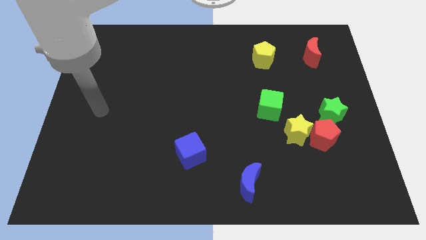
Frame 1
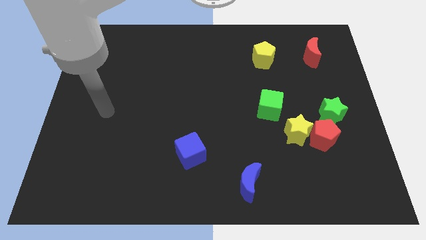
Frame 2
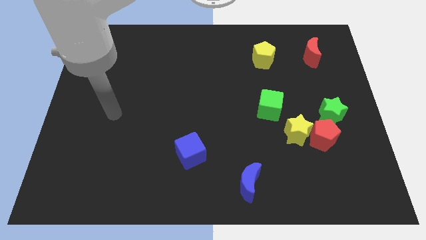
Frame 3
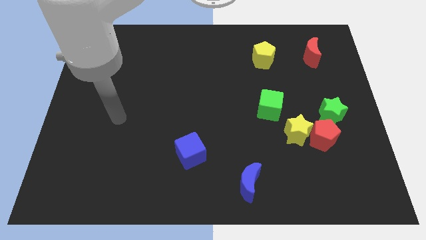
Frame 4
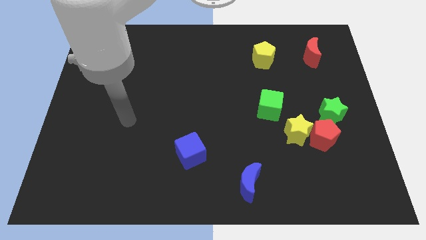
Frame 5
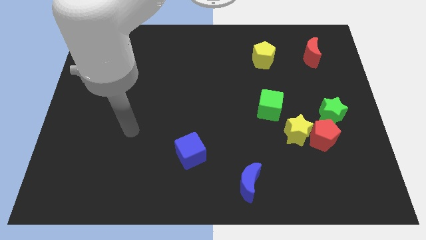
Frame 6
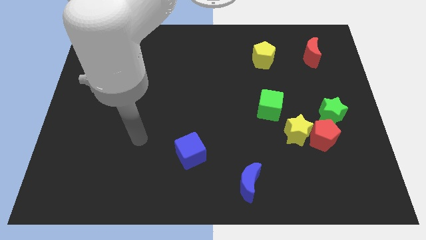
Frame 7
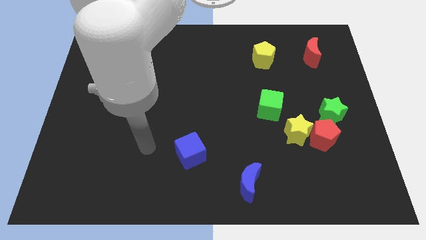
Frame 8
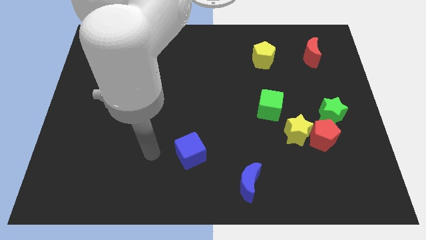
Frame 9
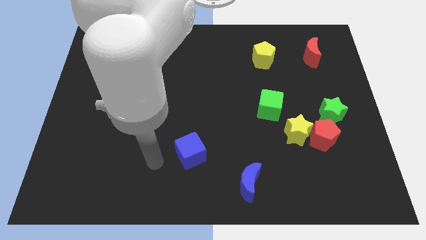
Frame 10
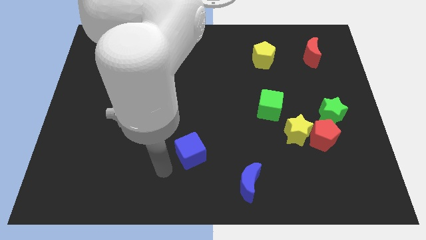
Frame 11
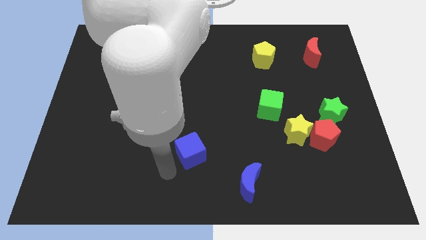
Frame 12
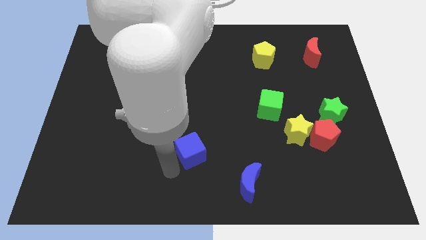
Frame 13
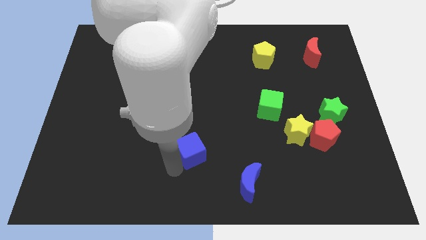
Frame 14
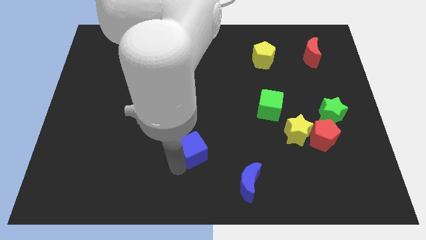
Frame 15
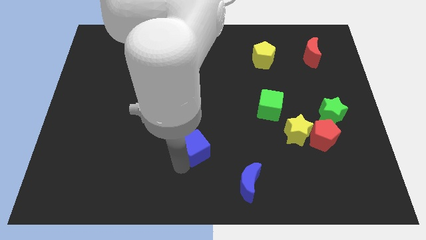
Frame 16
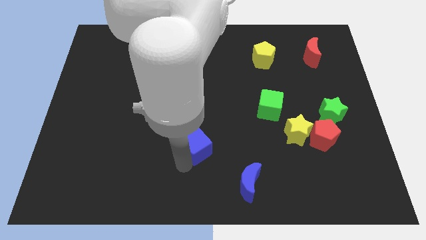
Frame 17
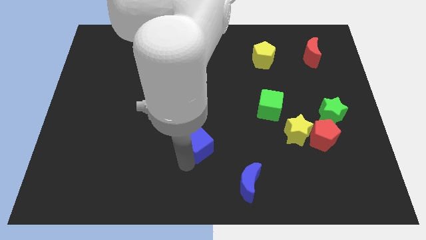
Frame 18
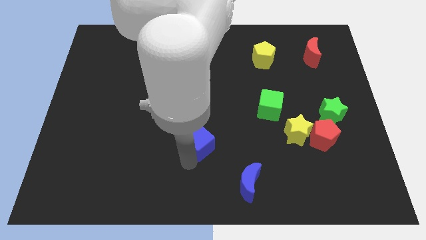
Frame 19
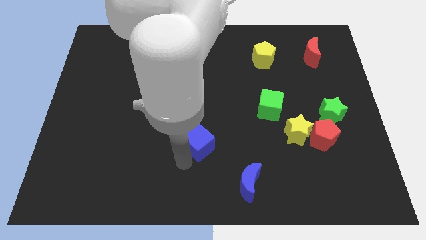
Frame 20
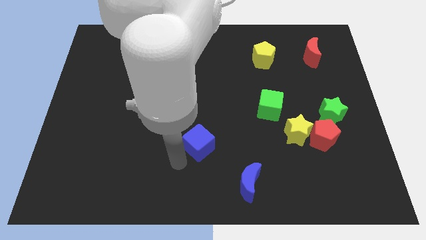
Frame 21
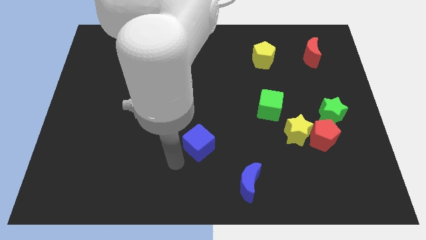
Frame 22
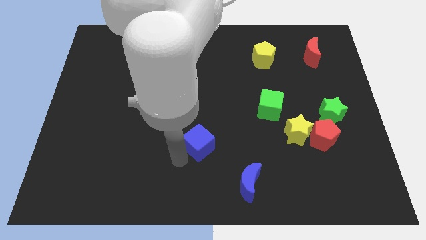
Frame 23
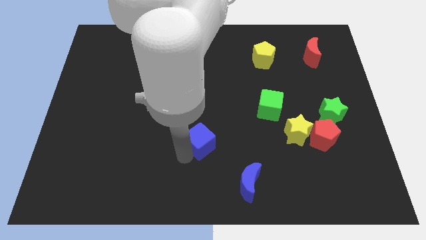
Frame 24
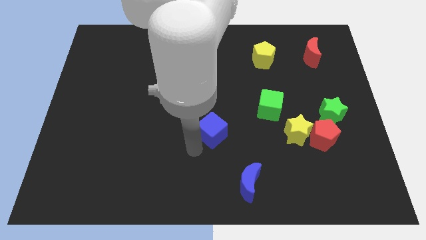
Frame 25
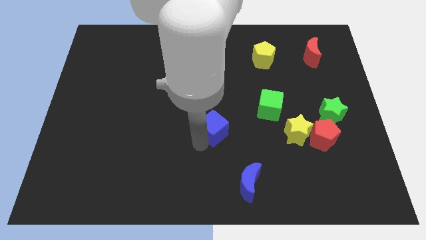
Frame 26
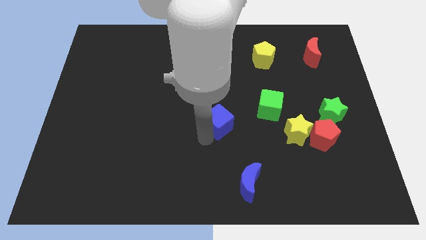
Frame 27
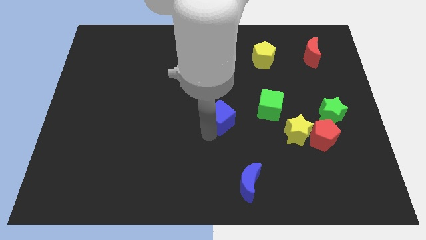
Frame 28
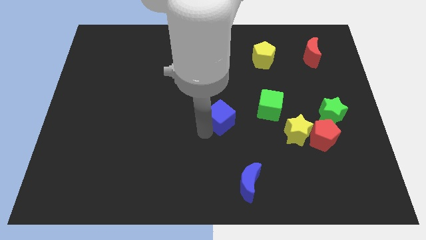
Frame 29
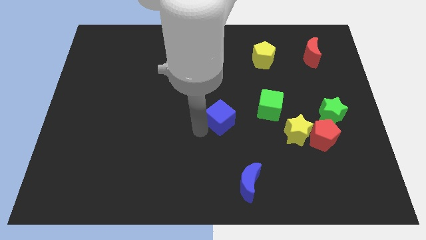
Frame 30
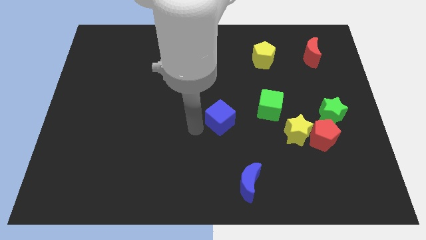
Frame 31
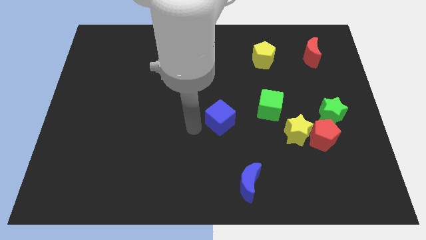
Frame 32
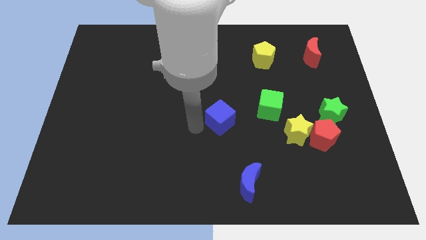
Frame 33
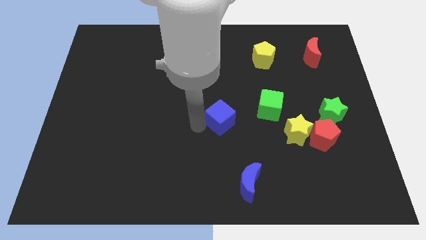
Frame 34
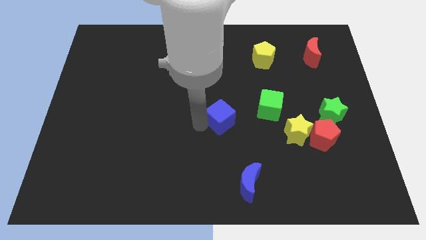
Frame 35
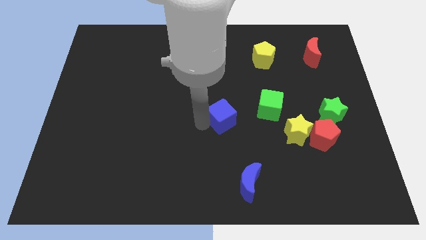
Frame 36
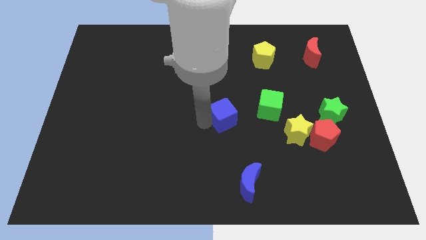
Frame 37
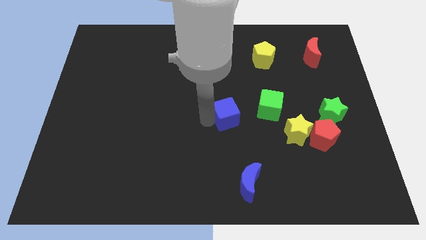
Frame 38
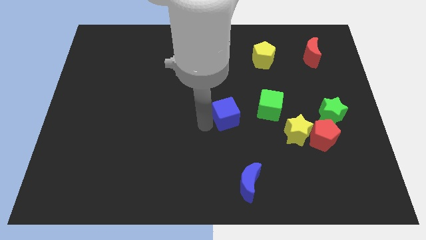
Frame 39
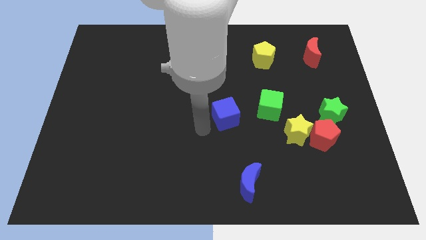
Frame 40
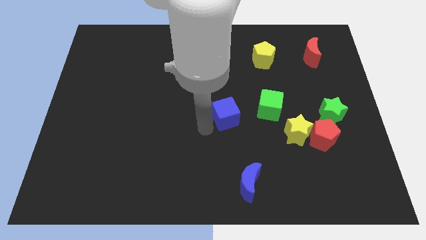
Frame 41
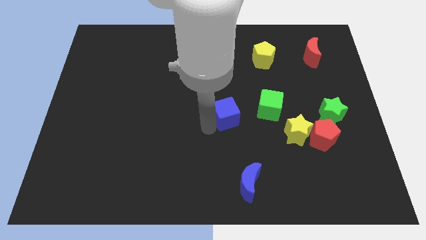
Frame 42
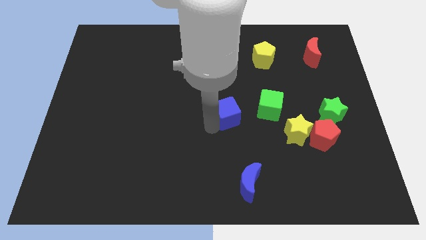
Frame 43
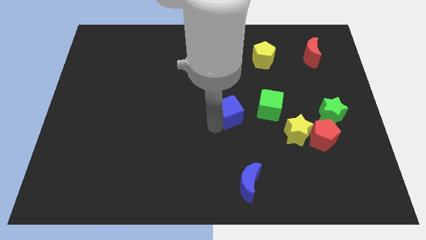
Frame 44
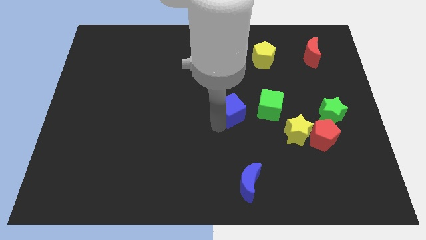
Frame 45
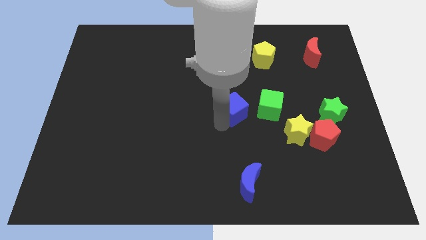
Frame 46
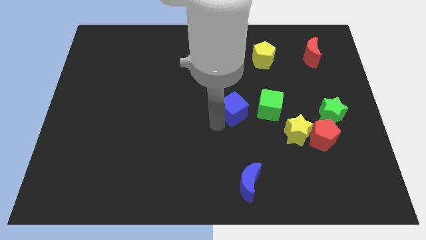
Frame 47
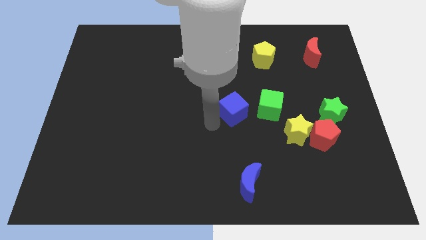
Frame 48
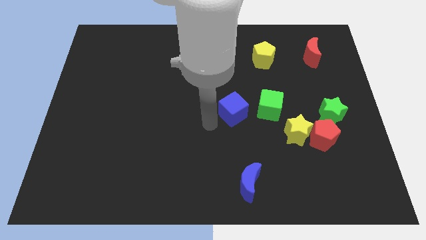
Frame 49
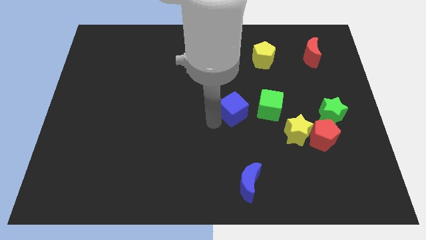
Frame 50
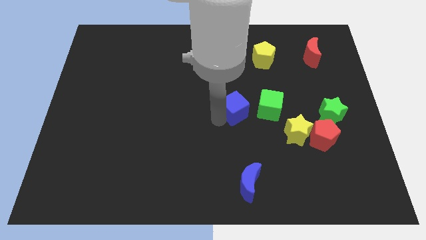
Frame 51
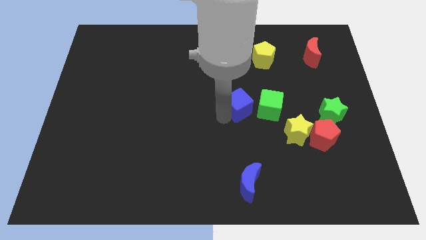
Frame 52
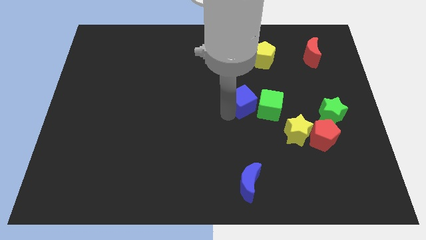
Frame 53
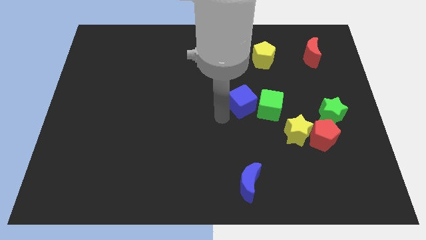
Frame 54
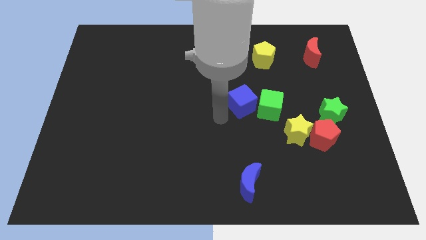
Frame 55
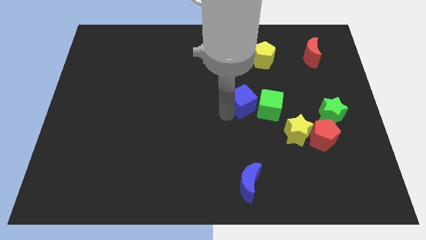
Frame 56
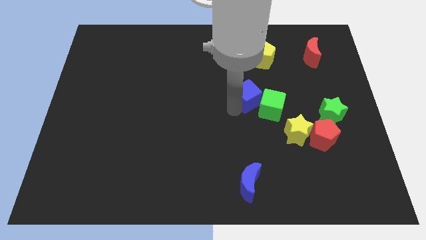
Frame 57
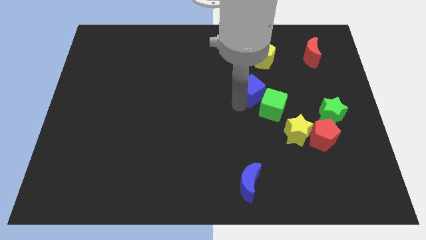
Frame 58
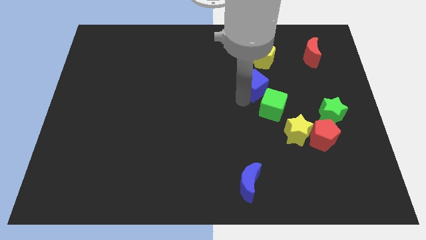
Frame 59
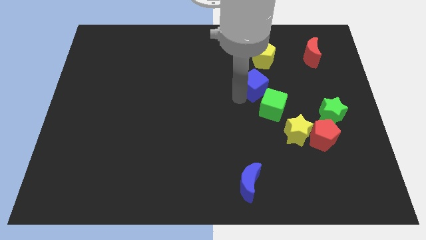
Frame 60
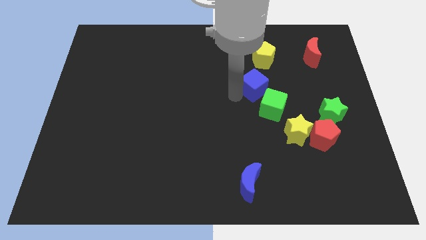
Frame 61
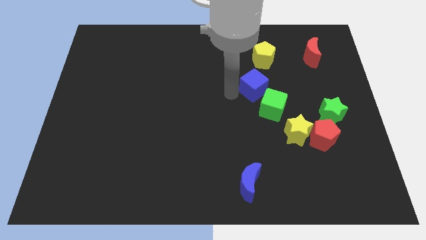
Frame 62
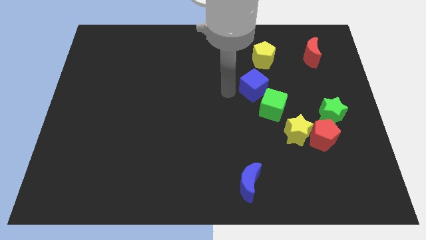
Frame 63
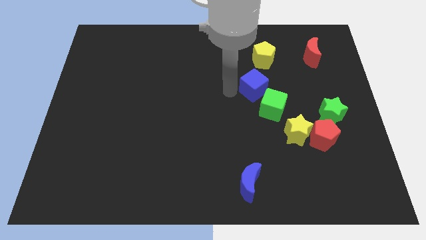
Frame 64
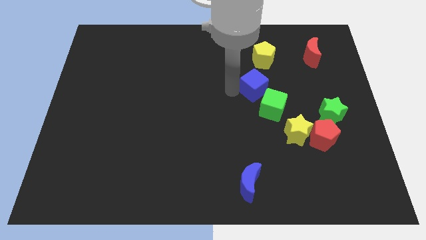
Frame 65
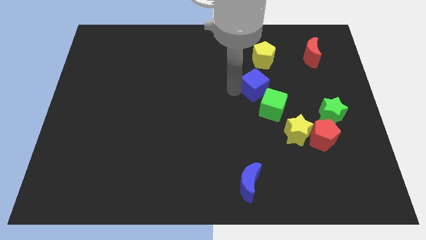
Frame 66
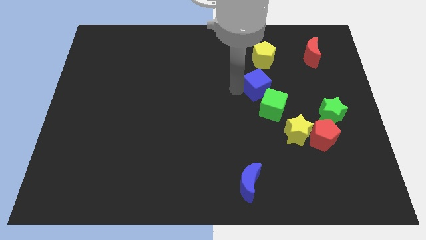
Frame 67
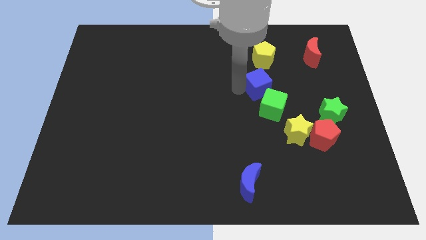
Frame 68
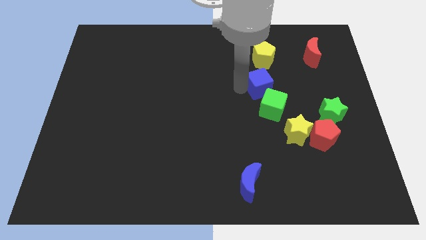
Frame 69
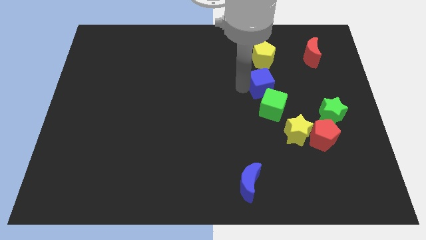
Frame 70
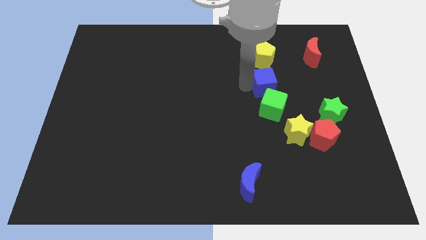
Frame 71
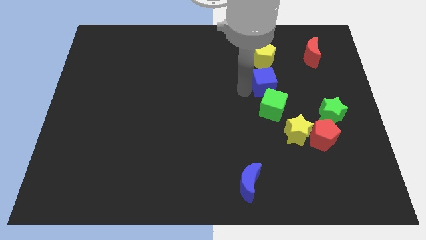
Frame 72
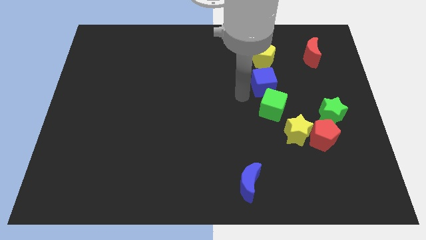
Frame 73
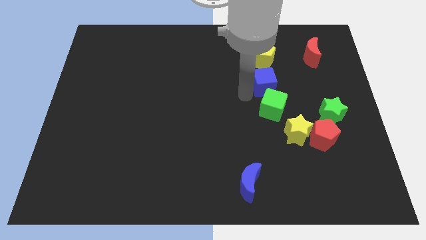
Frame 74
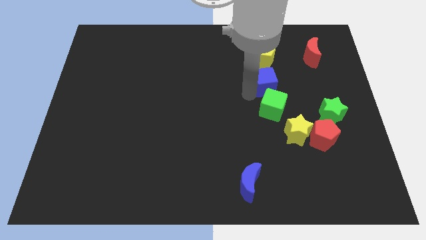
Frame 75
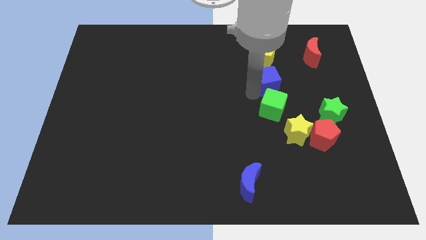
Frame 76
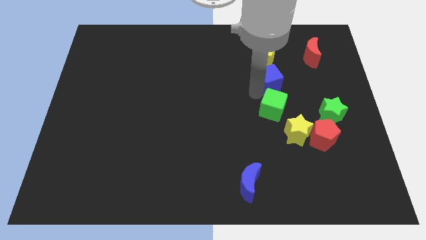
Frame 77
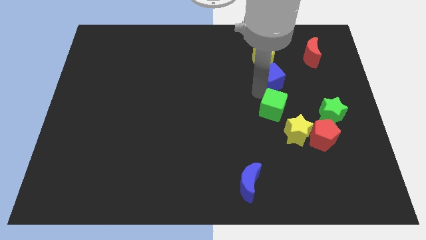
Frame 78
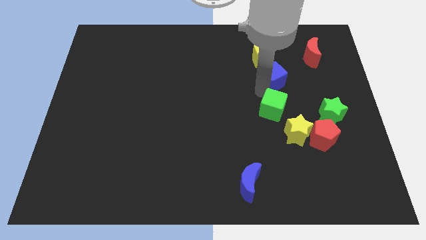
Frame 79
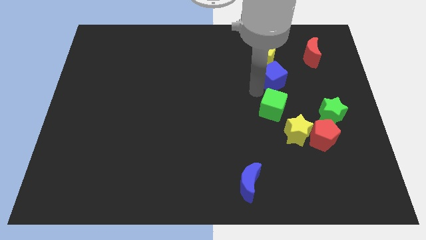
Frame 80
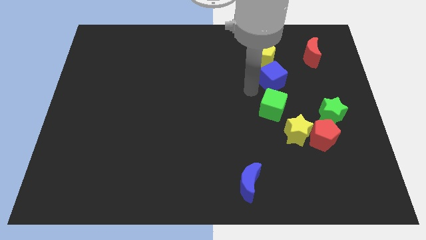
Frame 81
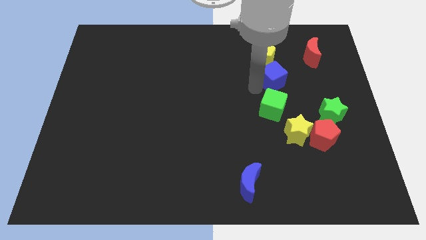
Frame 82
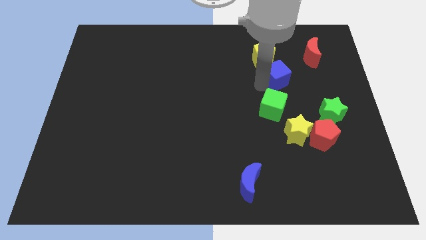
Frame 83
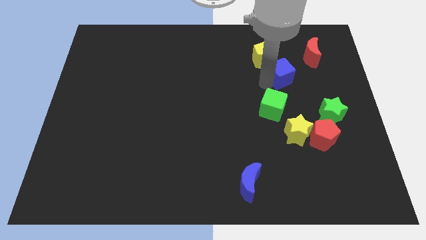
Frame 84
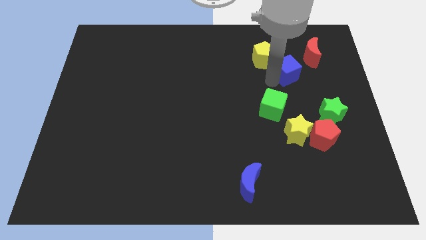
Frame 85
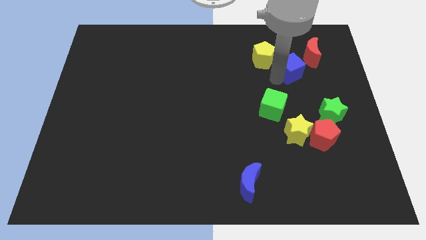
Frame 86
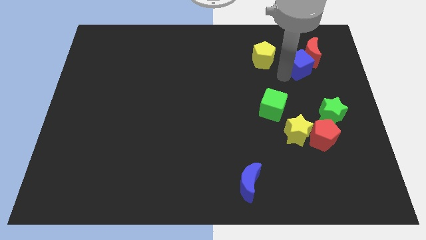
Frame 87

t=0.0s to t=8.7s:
slide the blue cube next to the red moon
